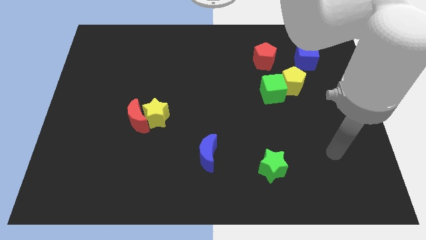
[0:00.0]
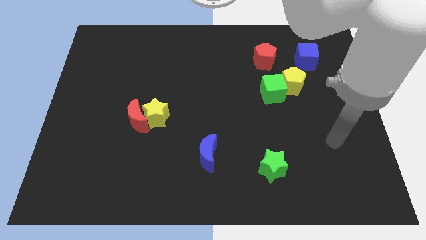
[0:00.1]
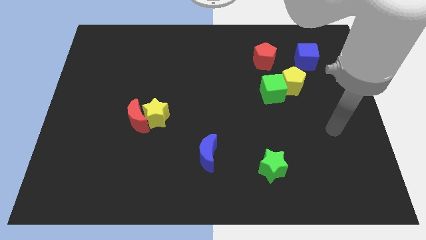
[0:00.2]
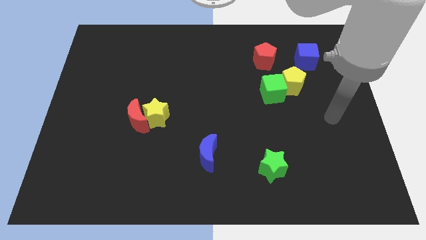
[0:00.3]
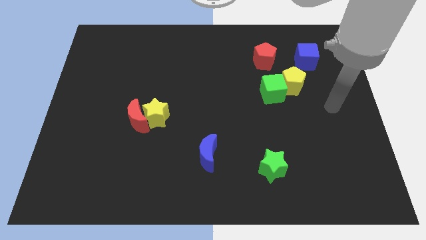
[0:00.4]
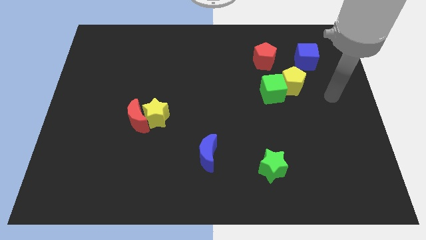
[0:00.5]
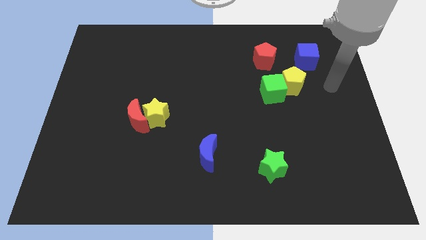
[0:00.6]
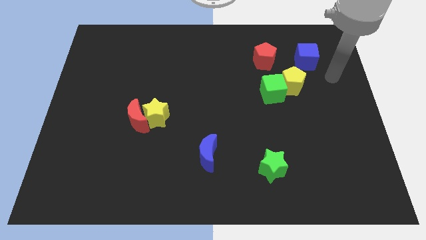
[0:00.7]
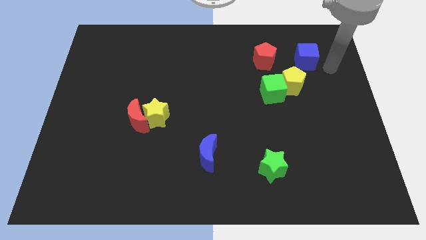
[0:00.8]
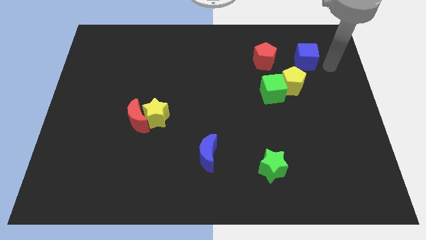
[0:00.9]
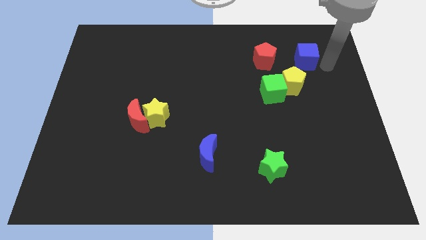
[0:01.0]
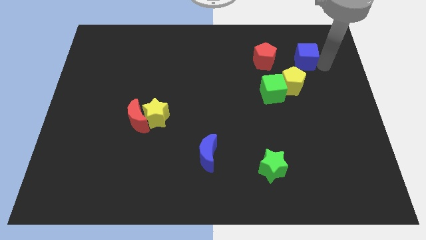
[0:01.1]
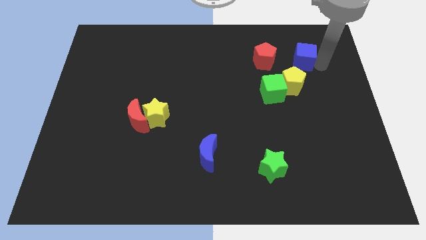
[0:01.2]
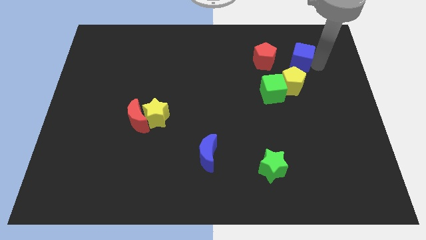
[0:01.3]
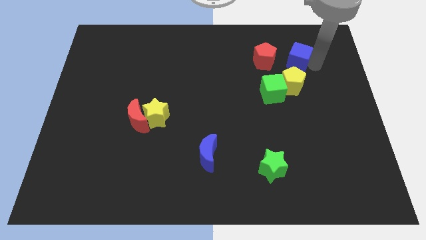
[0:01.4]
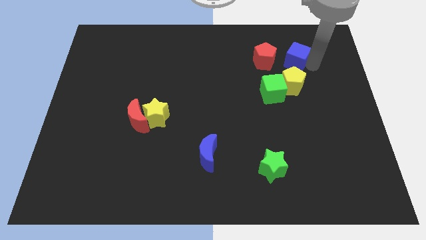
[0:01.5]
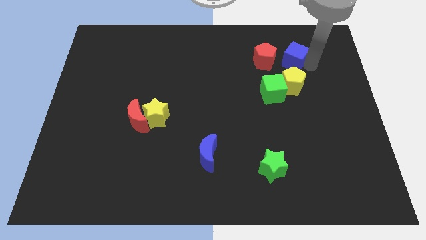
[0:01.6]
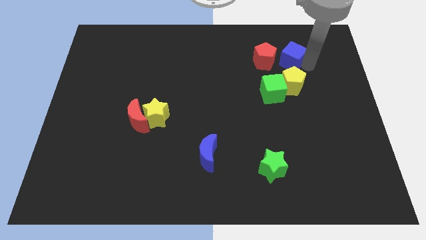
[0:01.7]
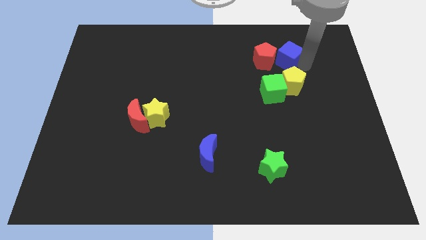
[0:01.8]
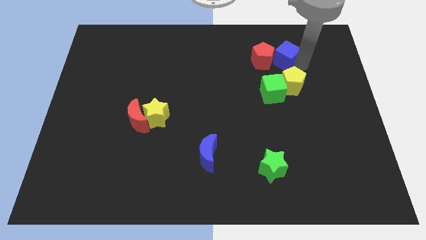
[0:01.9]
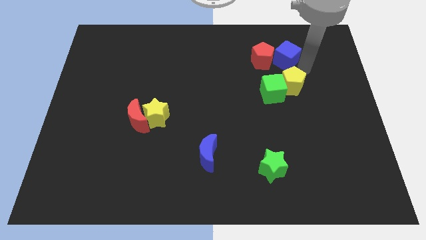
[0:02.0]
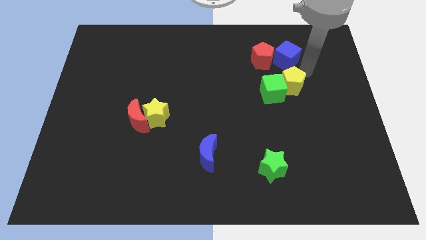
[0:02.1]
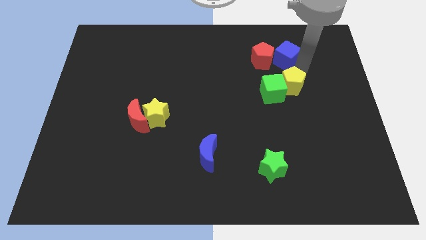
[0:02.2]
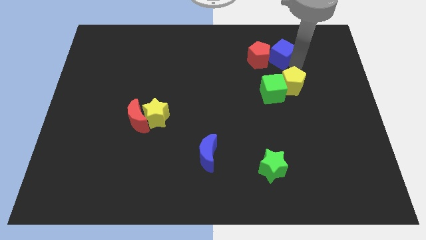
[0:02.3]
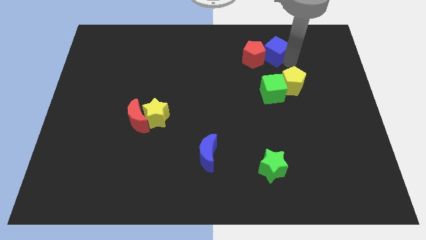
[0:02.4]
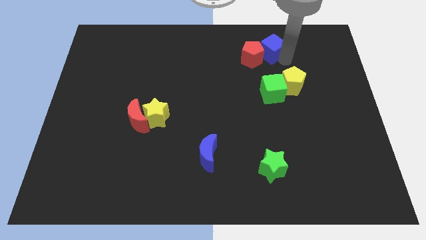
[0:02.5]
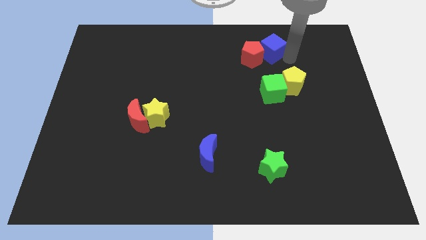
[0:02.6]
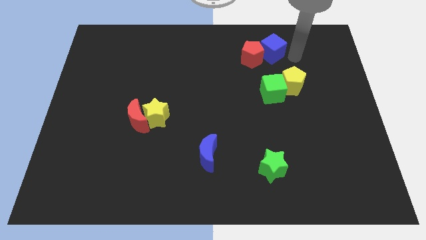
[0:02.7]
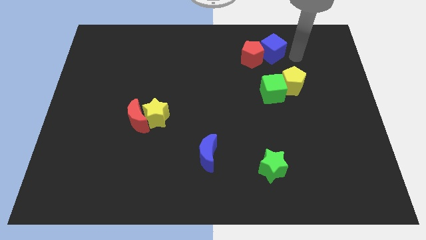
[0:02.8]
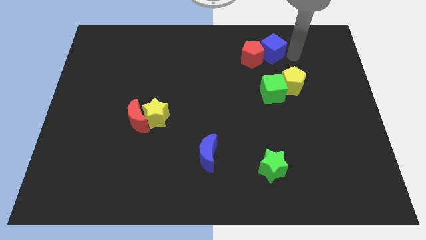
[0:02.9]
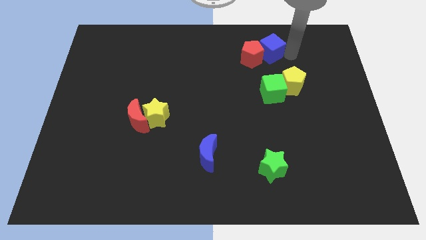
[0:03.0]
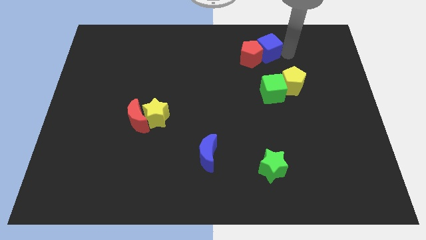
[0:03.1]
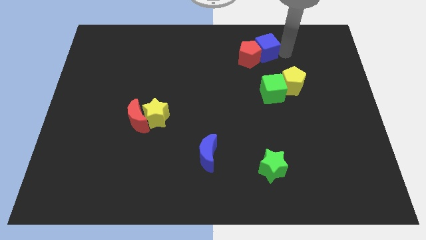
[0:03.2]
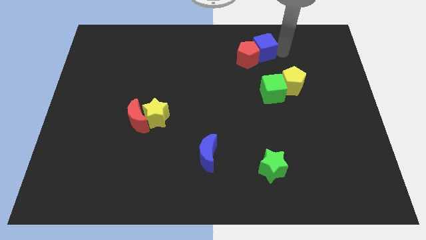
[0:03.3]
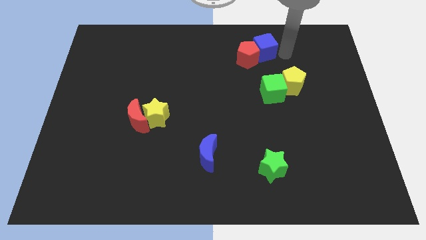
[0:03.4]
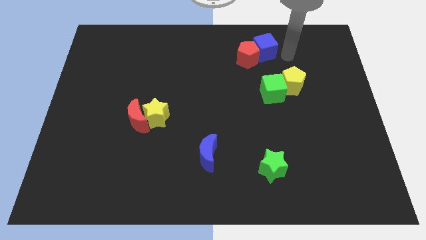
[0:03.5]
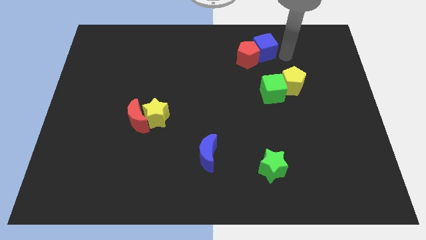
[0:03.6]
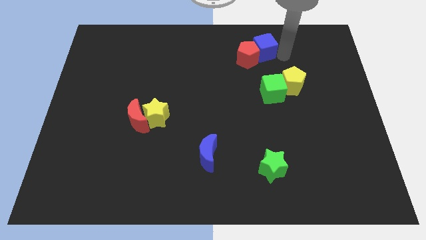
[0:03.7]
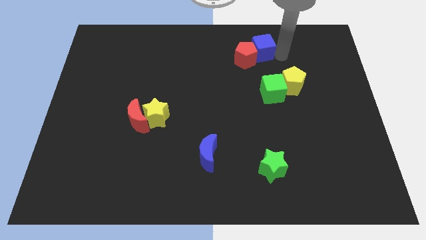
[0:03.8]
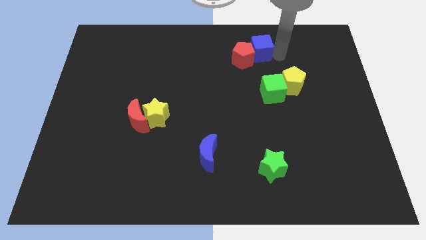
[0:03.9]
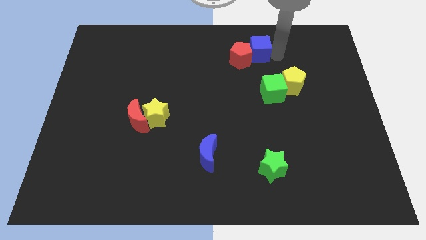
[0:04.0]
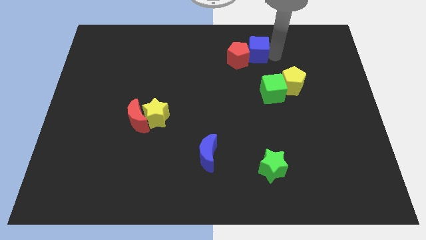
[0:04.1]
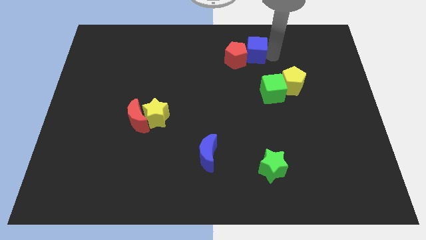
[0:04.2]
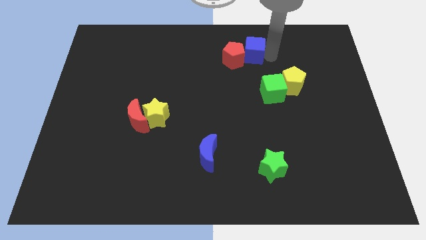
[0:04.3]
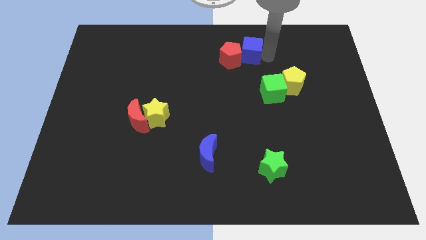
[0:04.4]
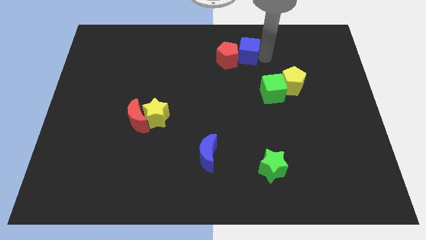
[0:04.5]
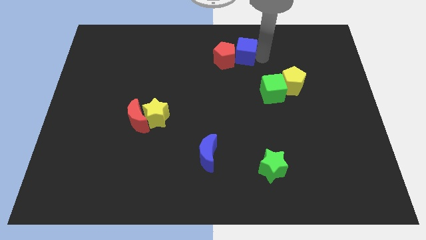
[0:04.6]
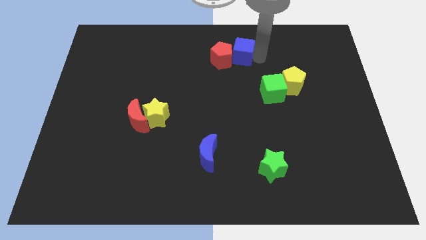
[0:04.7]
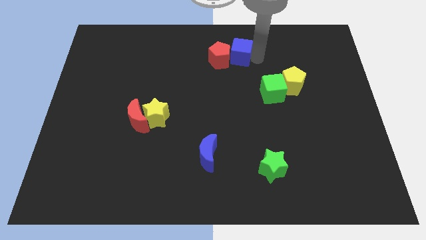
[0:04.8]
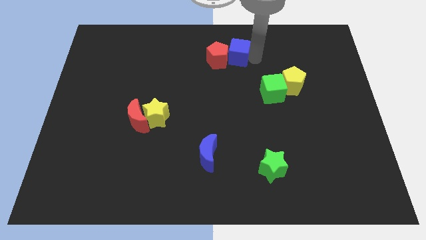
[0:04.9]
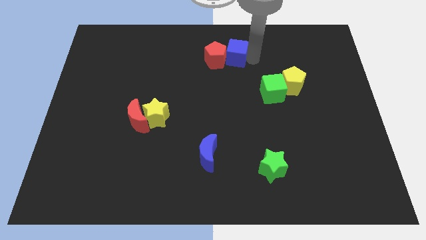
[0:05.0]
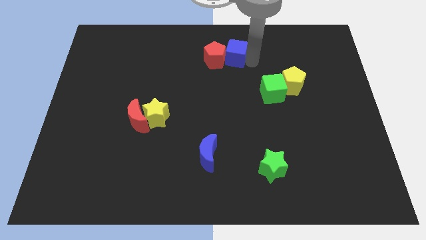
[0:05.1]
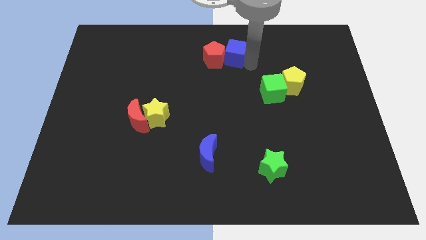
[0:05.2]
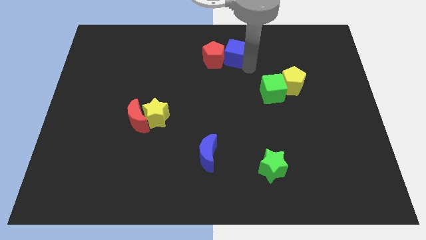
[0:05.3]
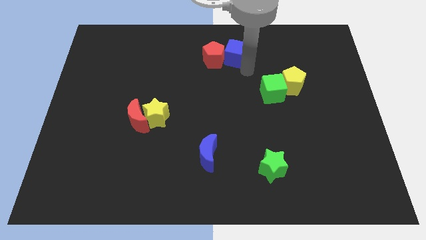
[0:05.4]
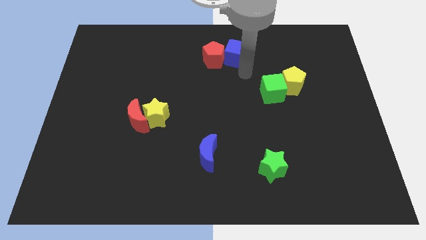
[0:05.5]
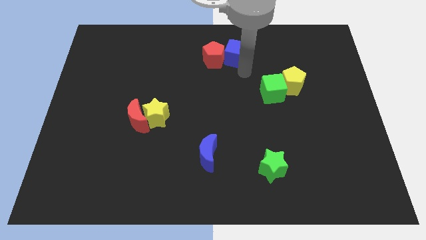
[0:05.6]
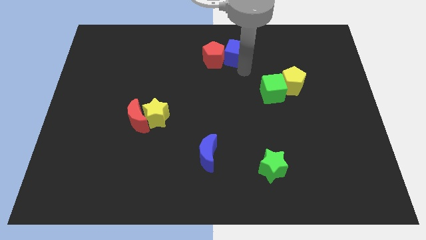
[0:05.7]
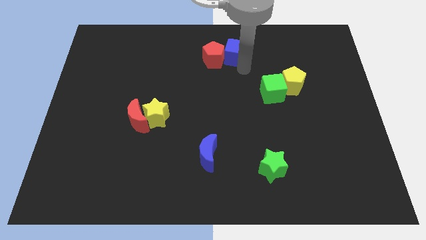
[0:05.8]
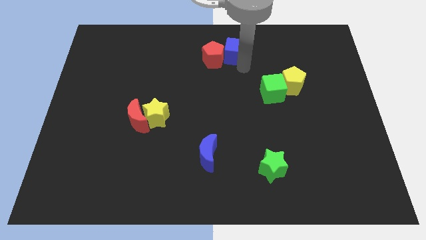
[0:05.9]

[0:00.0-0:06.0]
put the blue cube to the top
